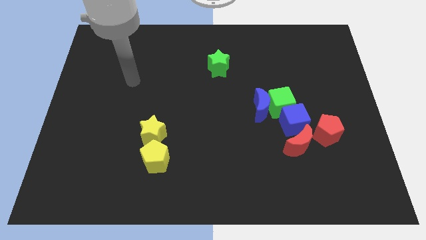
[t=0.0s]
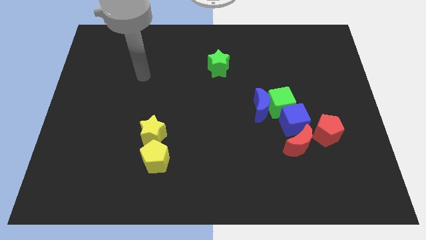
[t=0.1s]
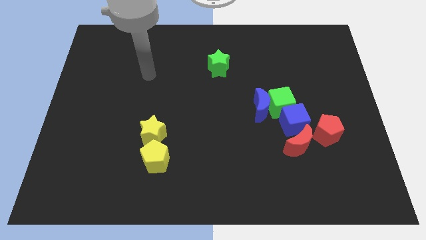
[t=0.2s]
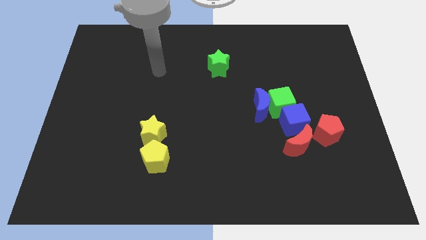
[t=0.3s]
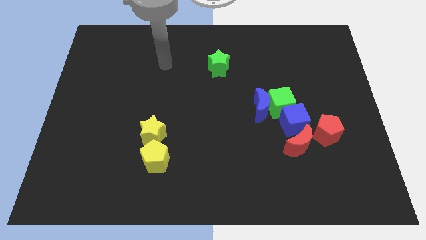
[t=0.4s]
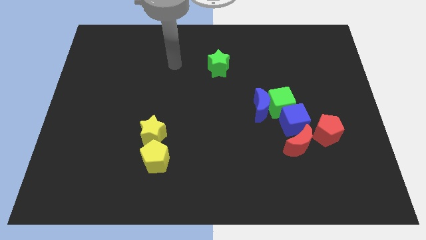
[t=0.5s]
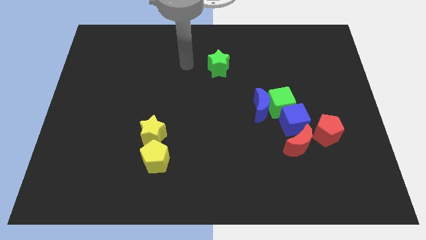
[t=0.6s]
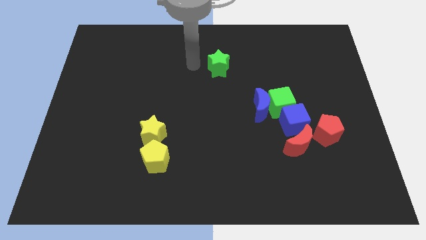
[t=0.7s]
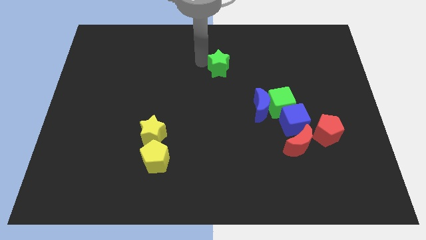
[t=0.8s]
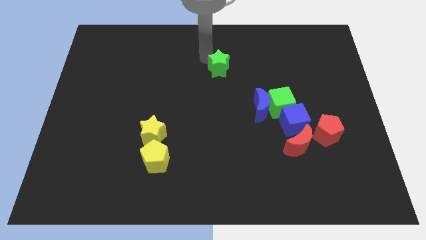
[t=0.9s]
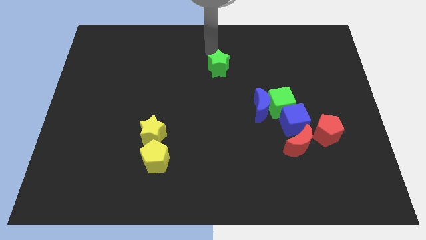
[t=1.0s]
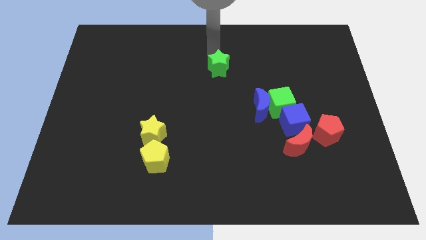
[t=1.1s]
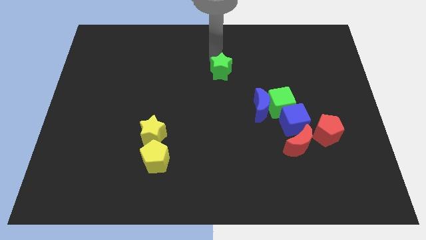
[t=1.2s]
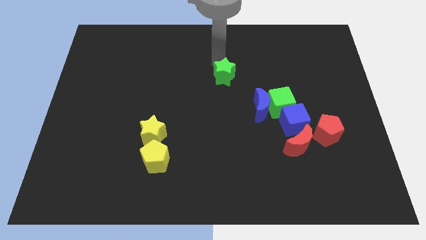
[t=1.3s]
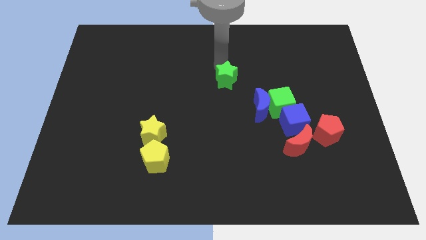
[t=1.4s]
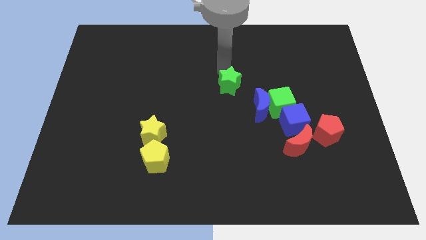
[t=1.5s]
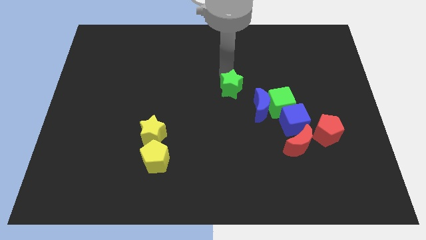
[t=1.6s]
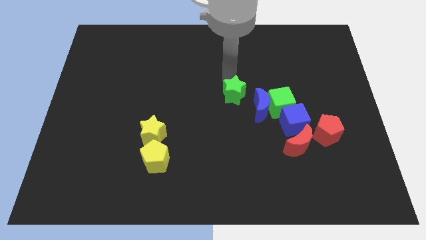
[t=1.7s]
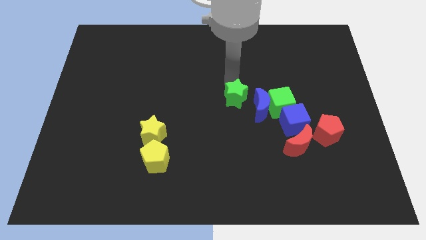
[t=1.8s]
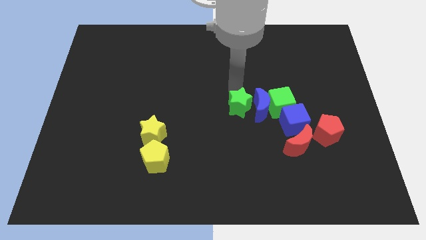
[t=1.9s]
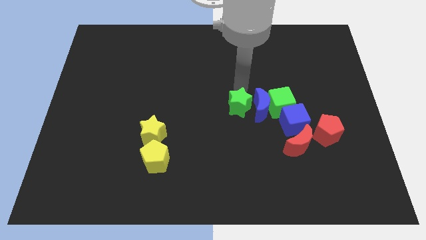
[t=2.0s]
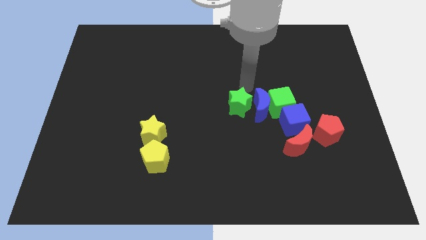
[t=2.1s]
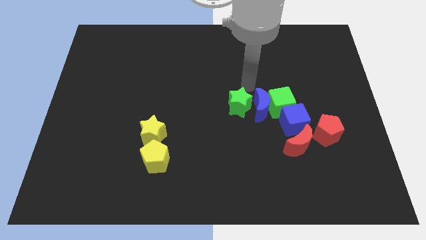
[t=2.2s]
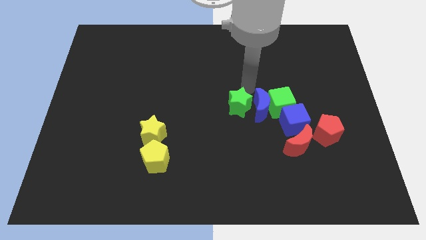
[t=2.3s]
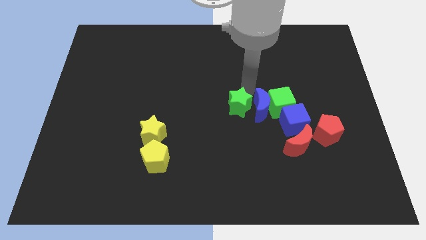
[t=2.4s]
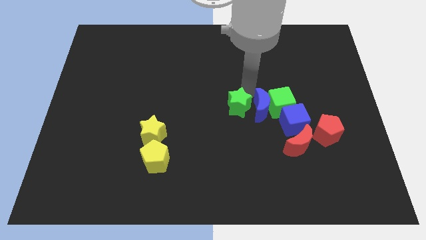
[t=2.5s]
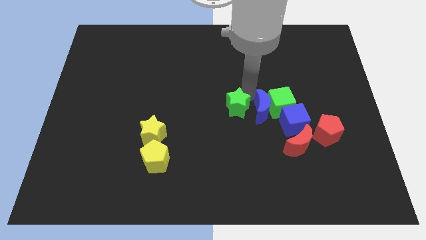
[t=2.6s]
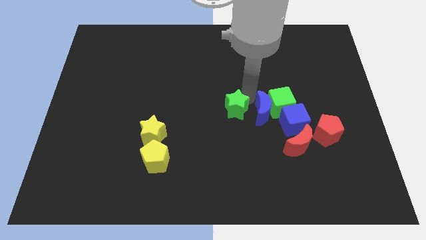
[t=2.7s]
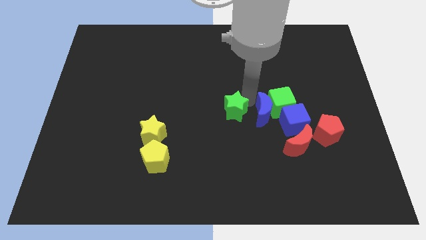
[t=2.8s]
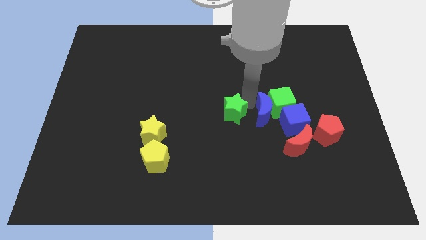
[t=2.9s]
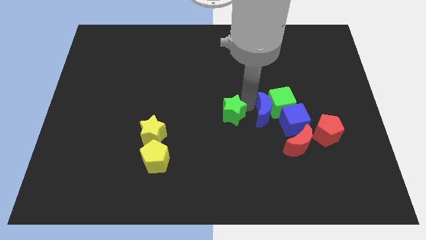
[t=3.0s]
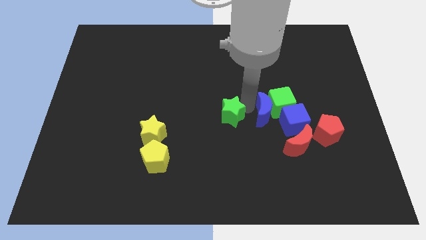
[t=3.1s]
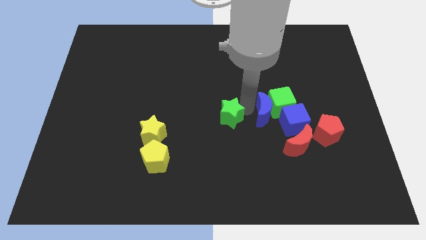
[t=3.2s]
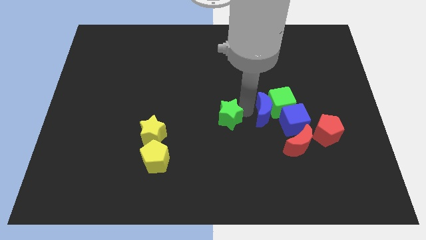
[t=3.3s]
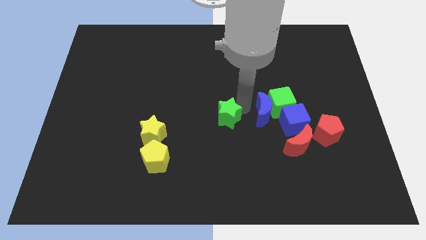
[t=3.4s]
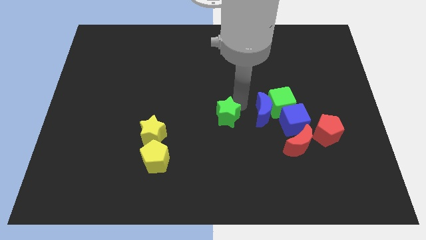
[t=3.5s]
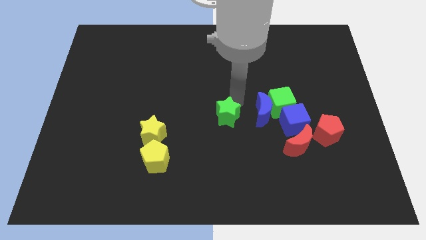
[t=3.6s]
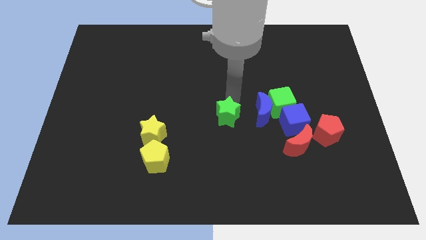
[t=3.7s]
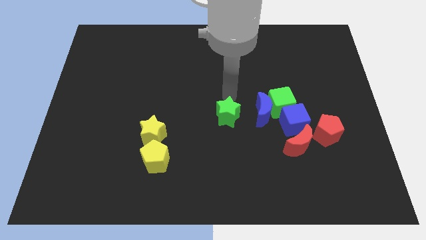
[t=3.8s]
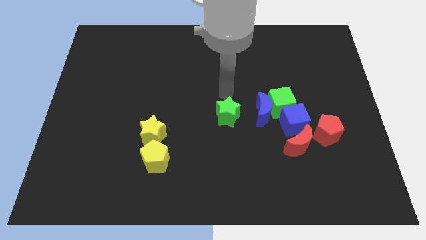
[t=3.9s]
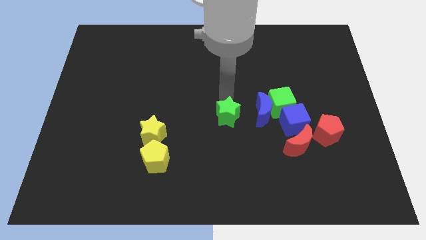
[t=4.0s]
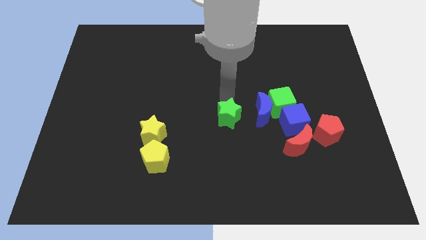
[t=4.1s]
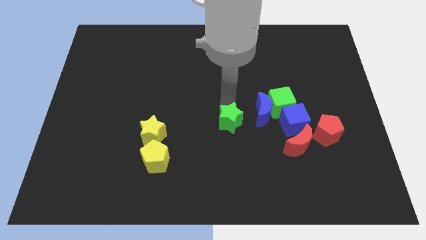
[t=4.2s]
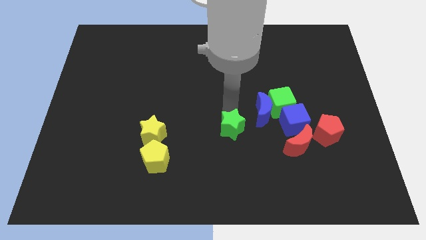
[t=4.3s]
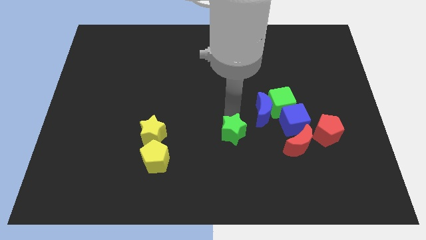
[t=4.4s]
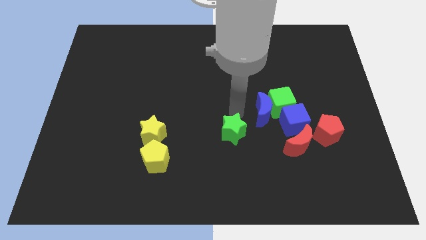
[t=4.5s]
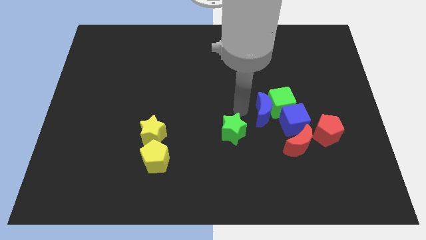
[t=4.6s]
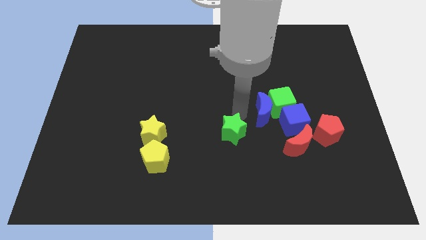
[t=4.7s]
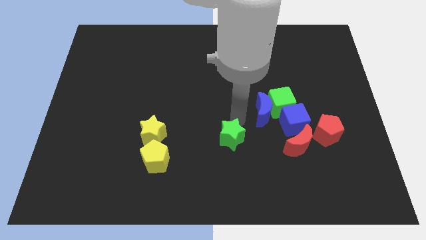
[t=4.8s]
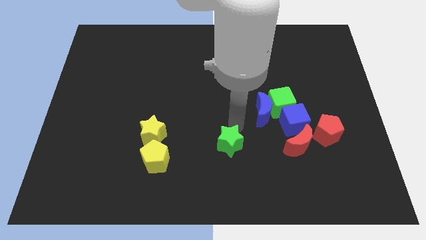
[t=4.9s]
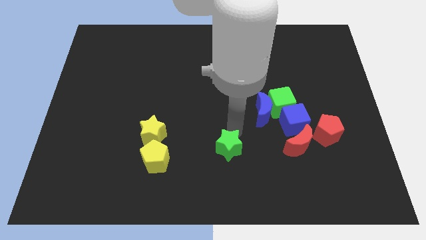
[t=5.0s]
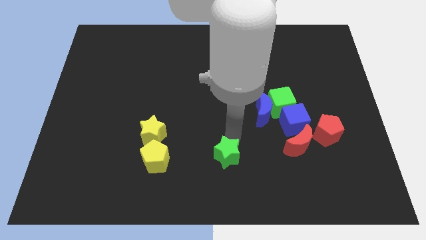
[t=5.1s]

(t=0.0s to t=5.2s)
move the green star to the bottom

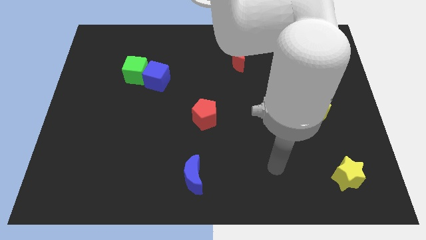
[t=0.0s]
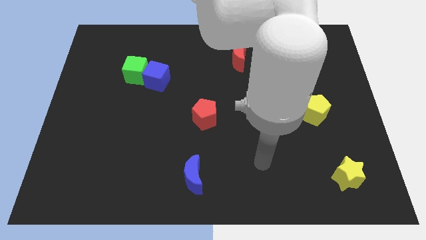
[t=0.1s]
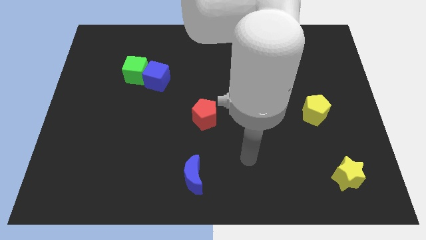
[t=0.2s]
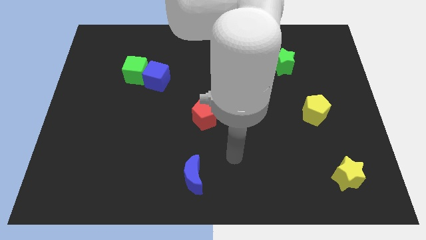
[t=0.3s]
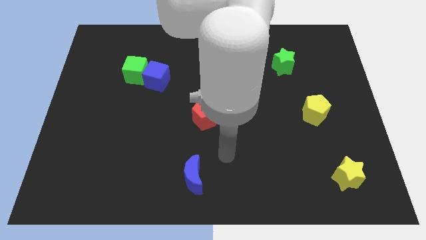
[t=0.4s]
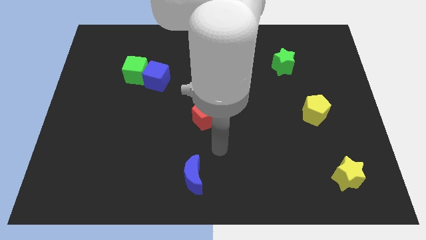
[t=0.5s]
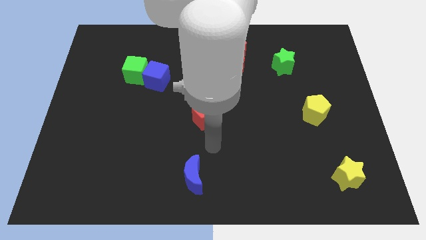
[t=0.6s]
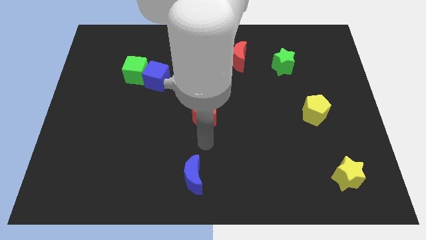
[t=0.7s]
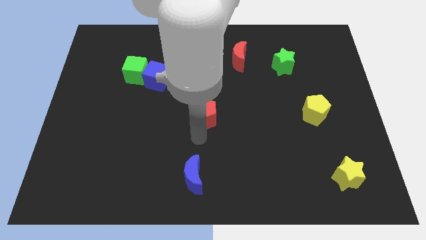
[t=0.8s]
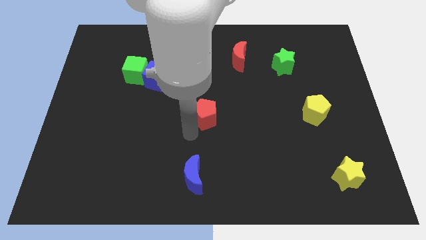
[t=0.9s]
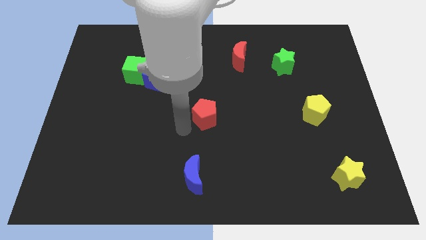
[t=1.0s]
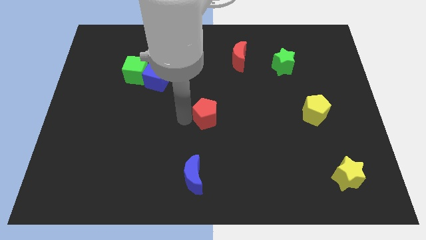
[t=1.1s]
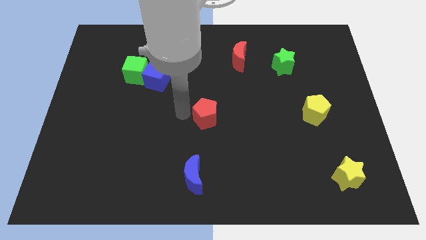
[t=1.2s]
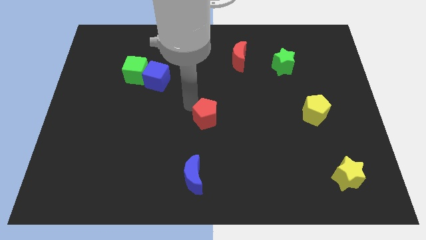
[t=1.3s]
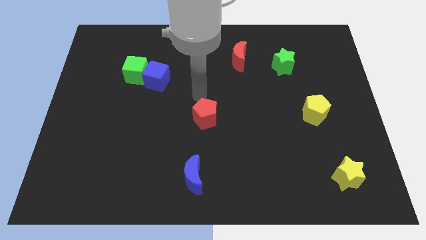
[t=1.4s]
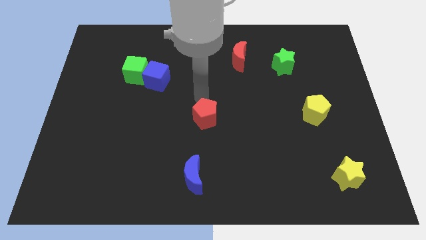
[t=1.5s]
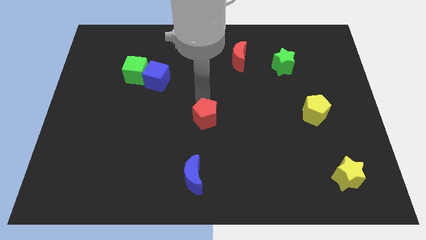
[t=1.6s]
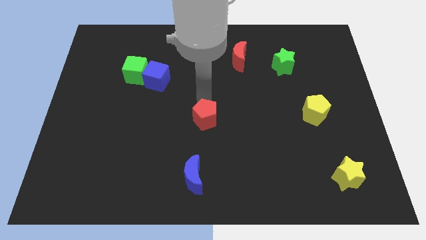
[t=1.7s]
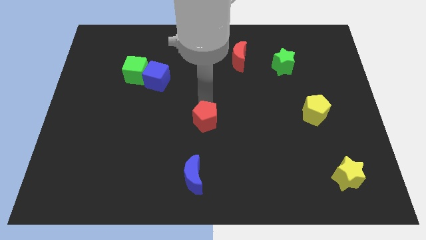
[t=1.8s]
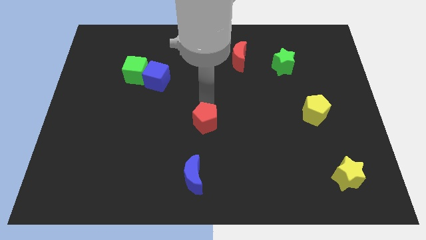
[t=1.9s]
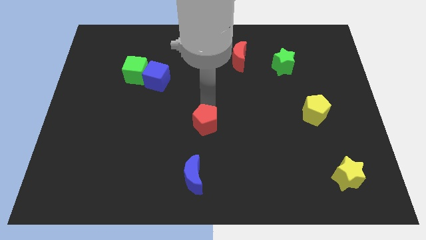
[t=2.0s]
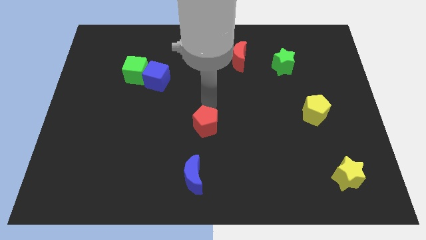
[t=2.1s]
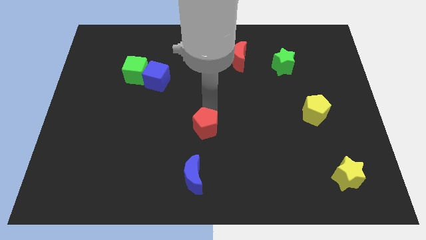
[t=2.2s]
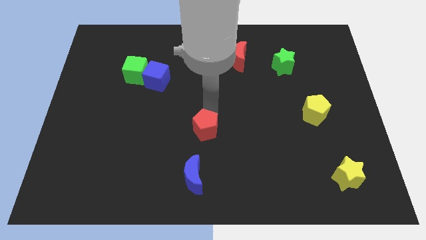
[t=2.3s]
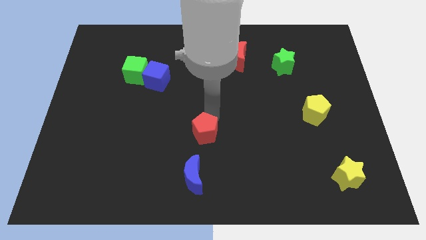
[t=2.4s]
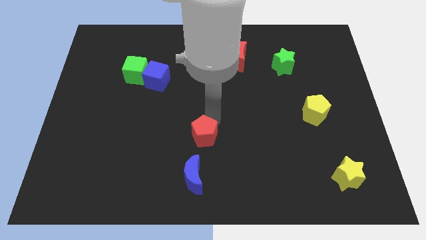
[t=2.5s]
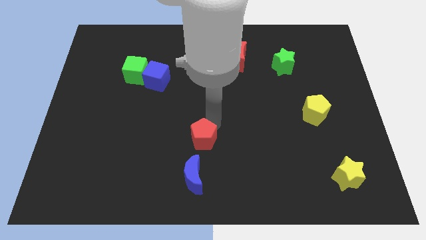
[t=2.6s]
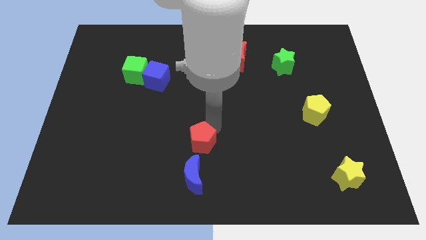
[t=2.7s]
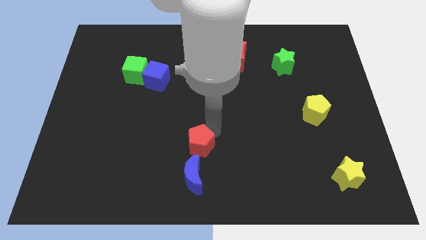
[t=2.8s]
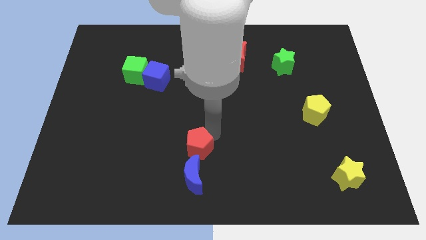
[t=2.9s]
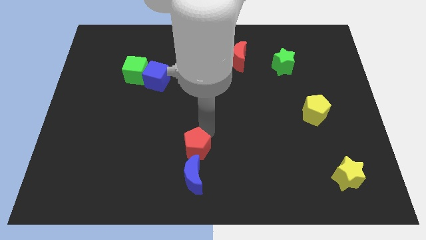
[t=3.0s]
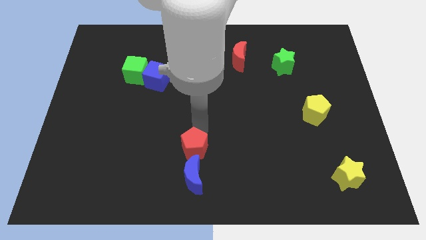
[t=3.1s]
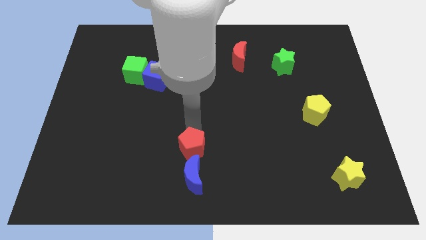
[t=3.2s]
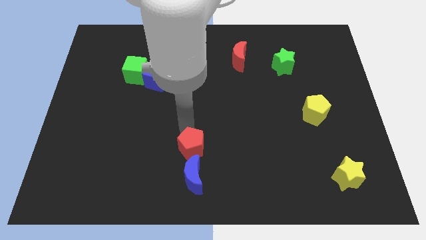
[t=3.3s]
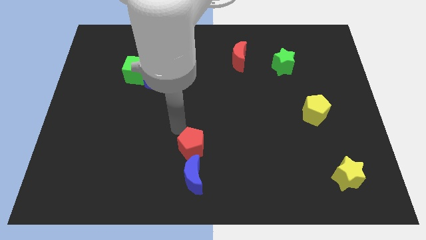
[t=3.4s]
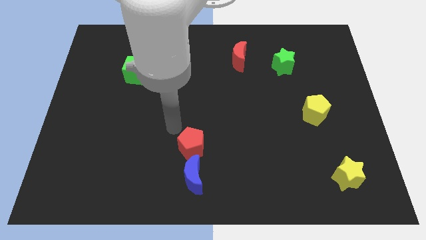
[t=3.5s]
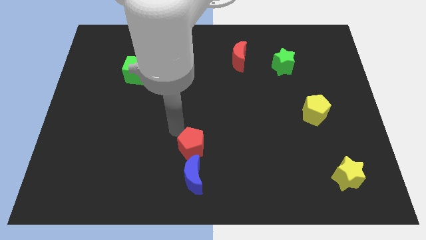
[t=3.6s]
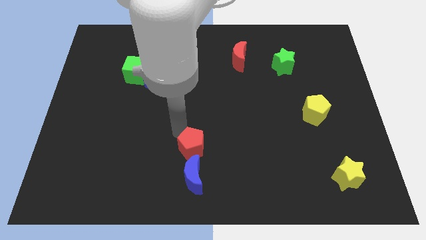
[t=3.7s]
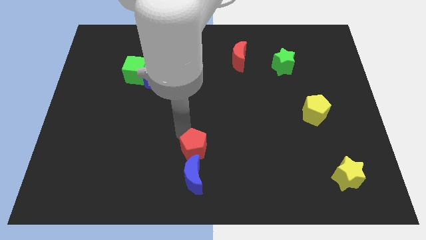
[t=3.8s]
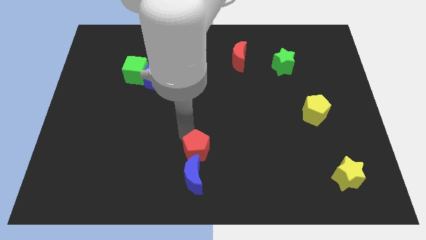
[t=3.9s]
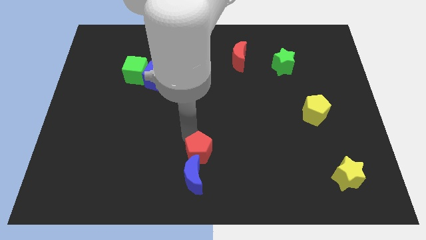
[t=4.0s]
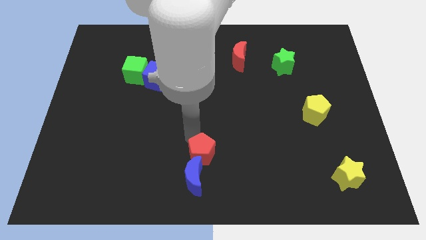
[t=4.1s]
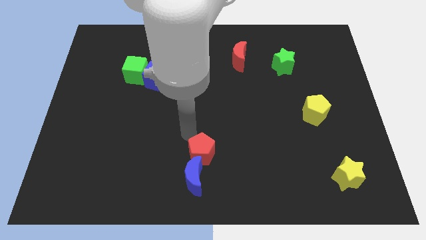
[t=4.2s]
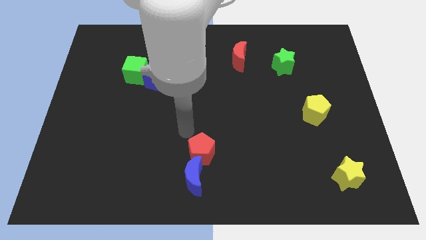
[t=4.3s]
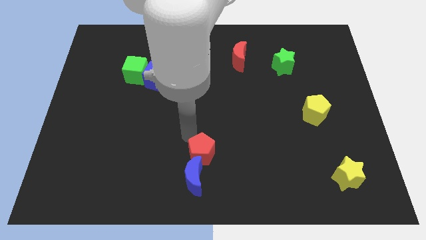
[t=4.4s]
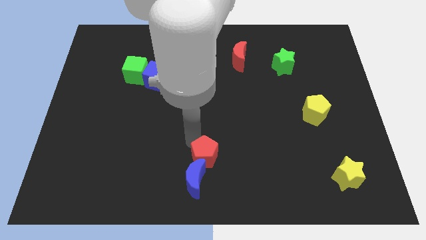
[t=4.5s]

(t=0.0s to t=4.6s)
put the red pentagon to the bottom
